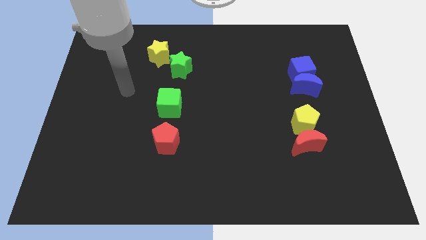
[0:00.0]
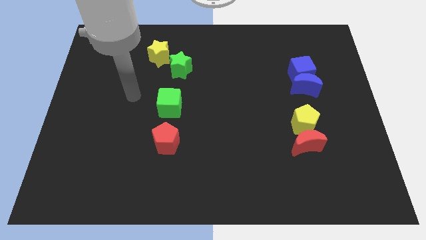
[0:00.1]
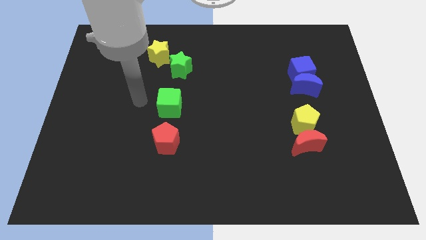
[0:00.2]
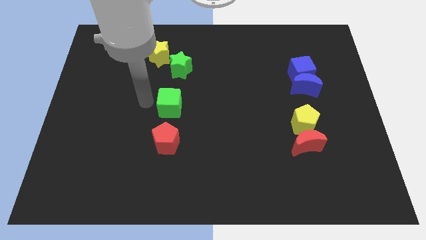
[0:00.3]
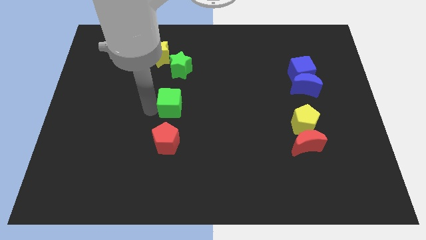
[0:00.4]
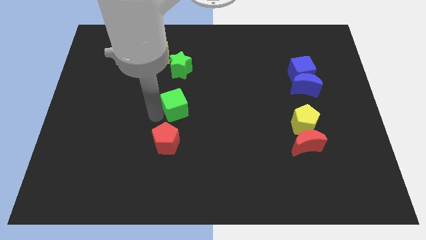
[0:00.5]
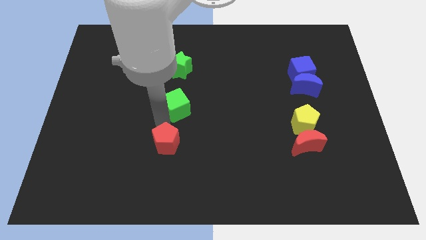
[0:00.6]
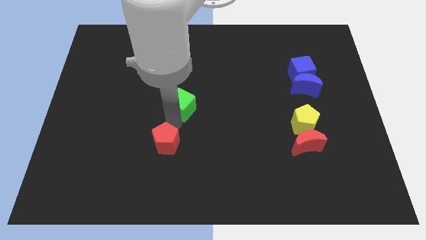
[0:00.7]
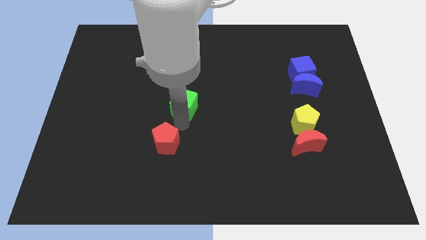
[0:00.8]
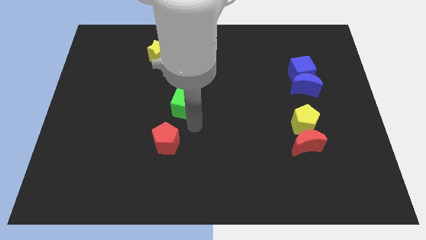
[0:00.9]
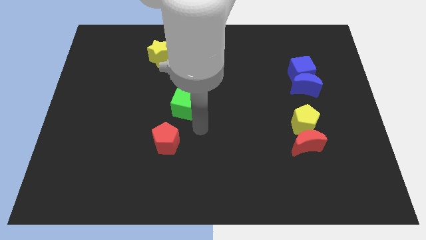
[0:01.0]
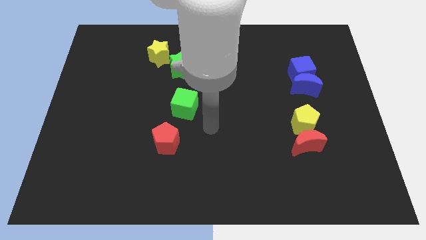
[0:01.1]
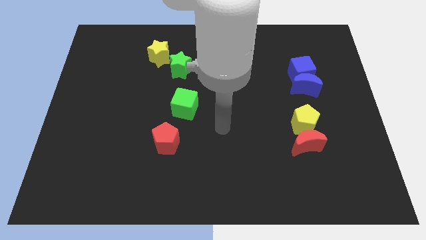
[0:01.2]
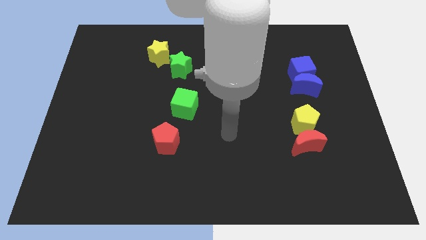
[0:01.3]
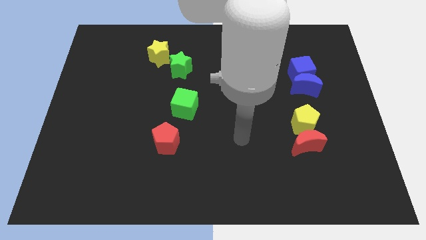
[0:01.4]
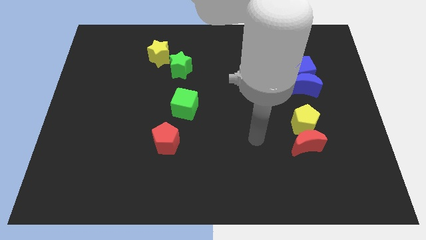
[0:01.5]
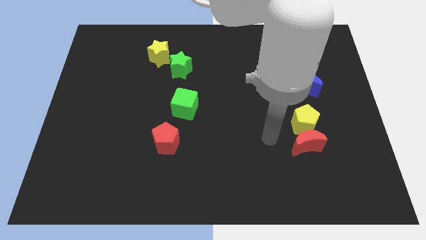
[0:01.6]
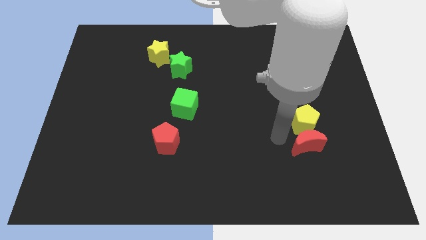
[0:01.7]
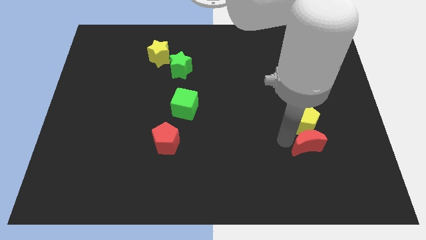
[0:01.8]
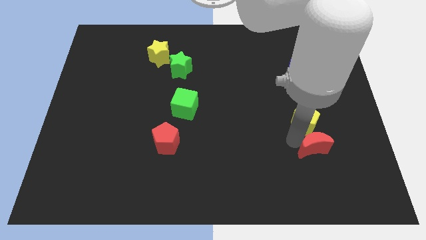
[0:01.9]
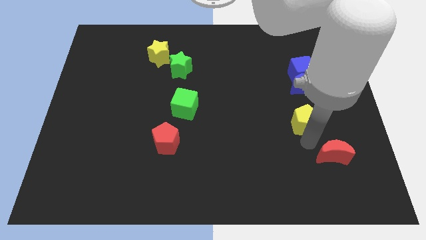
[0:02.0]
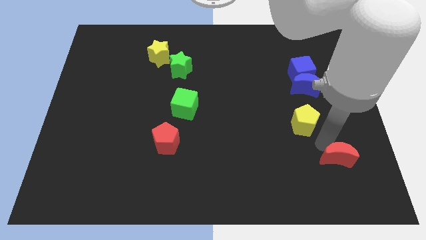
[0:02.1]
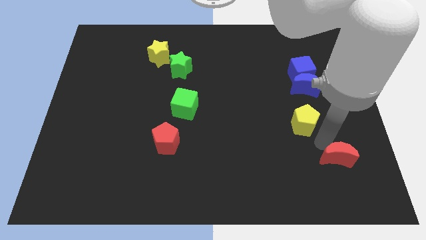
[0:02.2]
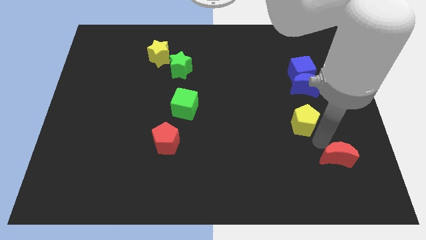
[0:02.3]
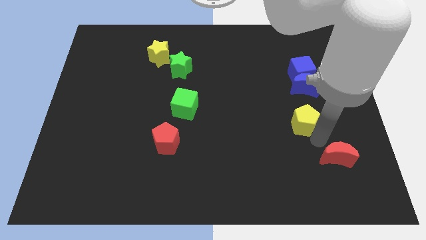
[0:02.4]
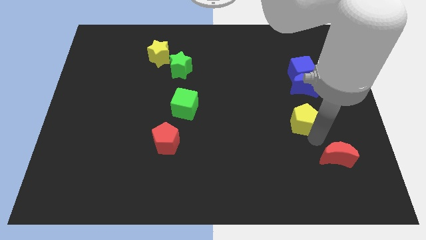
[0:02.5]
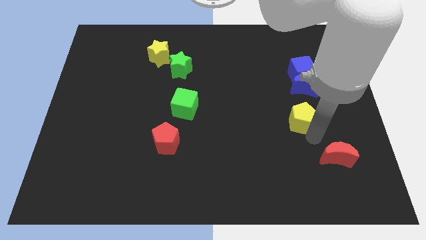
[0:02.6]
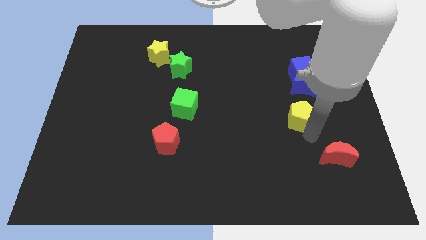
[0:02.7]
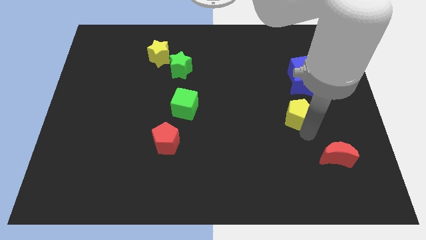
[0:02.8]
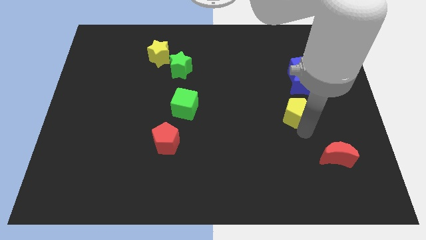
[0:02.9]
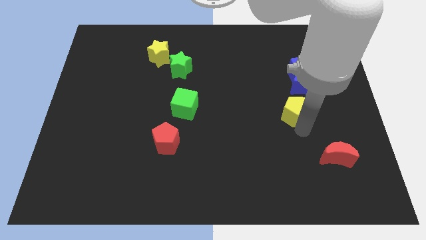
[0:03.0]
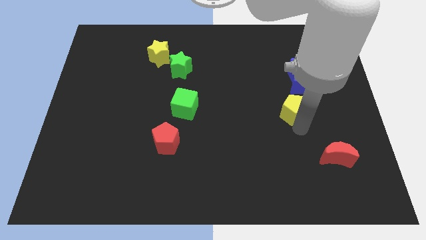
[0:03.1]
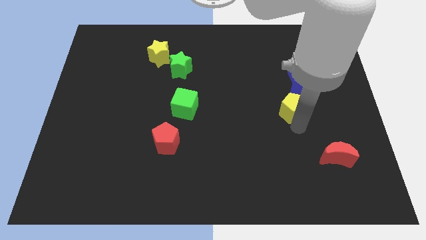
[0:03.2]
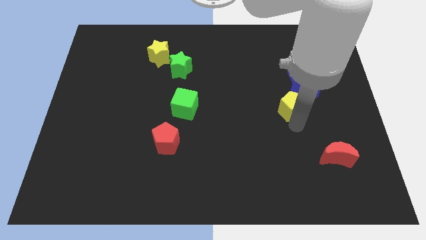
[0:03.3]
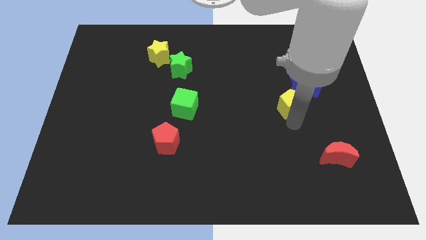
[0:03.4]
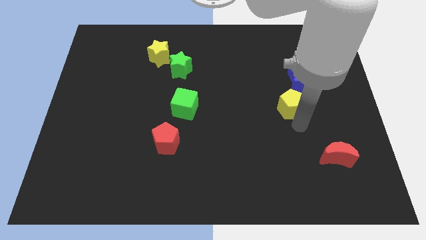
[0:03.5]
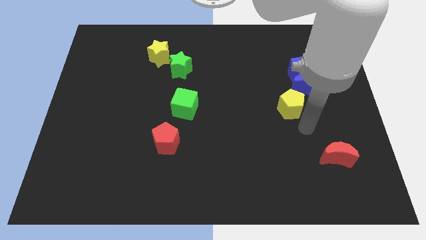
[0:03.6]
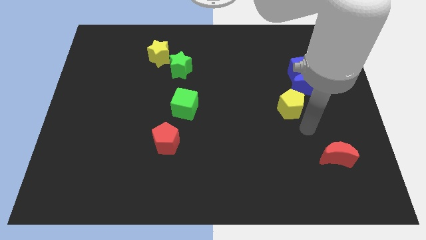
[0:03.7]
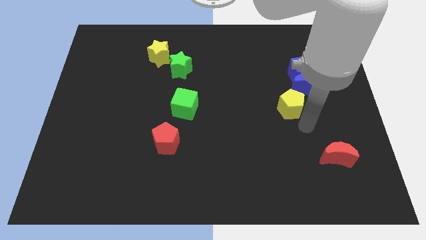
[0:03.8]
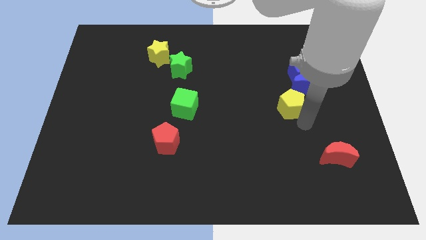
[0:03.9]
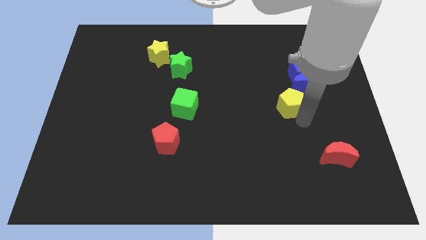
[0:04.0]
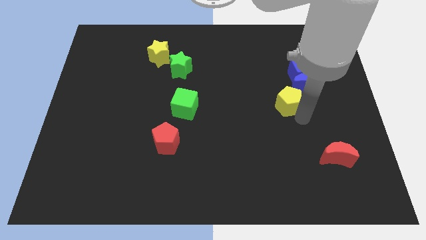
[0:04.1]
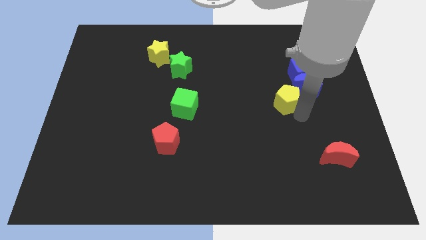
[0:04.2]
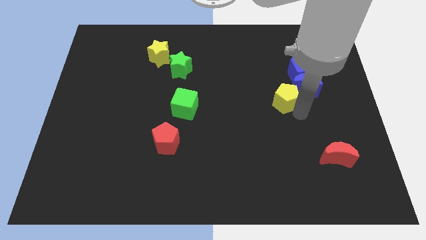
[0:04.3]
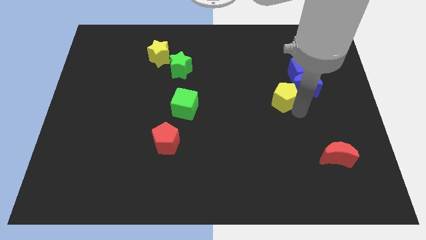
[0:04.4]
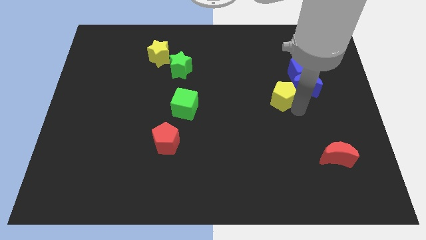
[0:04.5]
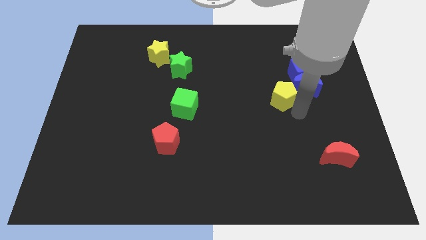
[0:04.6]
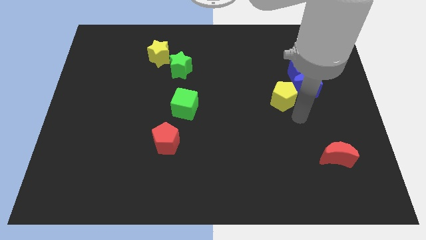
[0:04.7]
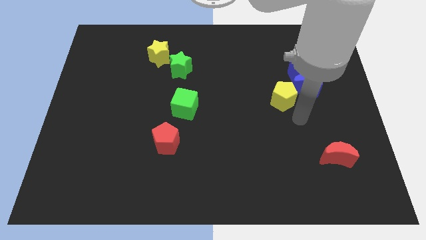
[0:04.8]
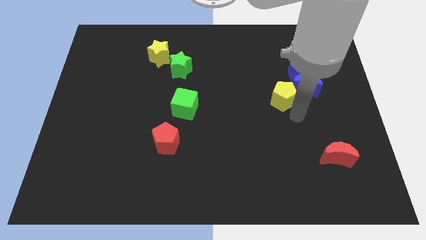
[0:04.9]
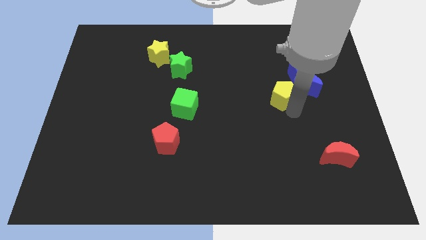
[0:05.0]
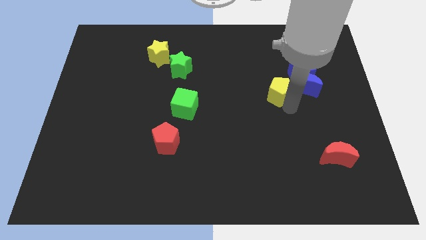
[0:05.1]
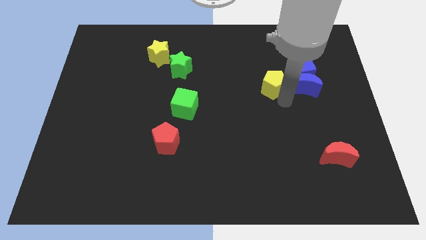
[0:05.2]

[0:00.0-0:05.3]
push the yellow pentagon left of the blue cube

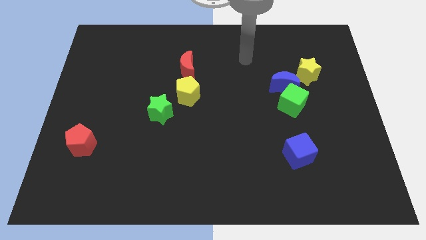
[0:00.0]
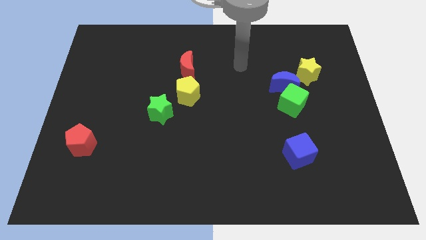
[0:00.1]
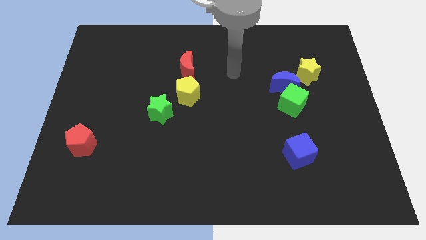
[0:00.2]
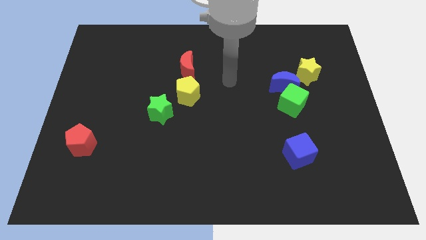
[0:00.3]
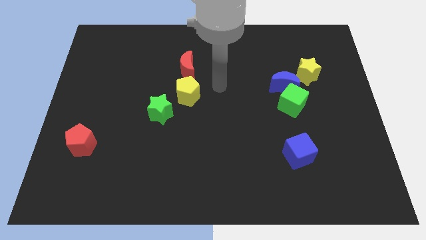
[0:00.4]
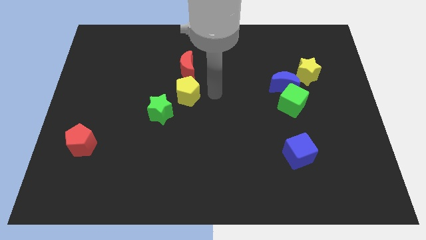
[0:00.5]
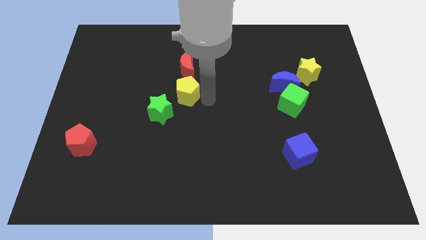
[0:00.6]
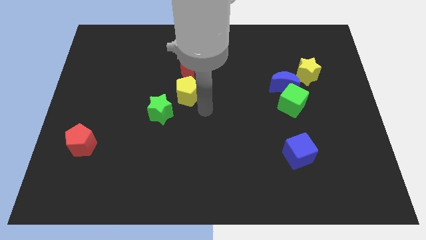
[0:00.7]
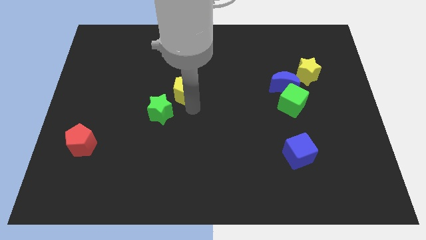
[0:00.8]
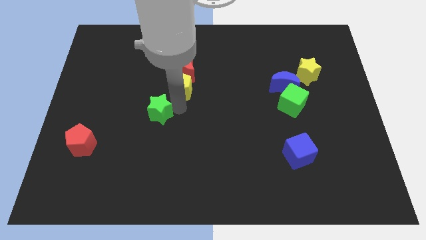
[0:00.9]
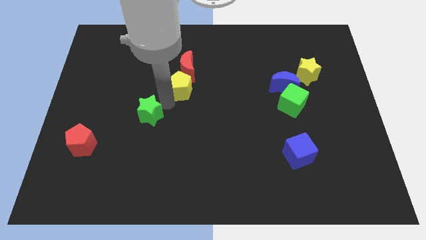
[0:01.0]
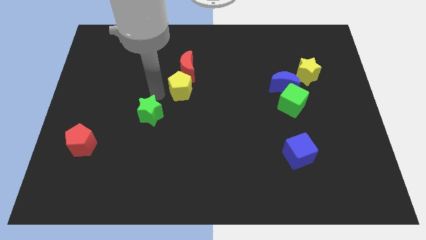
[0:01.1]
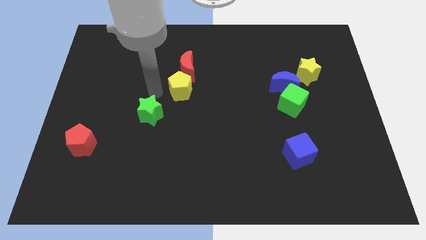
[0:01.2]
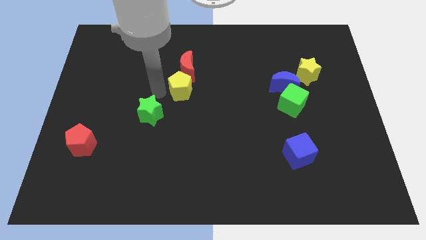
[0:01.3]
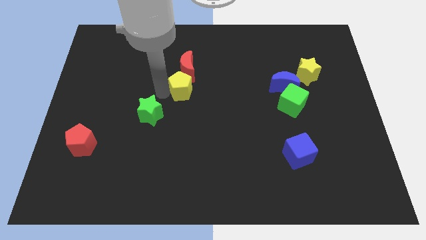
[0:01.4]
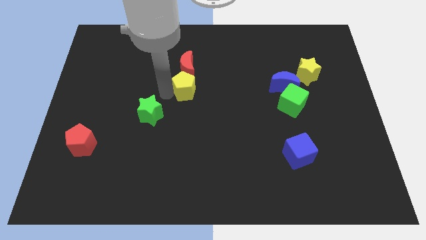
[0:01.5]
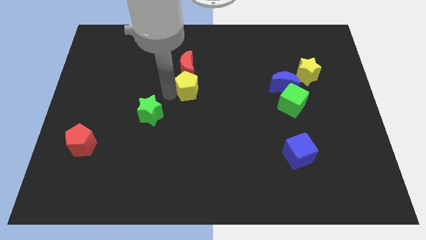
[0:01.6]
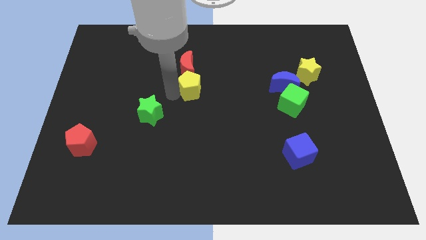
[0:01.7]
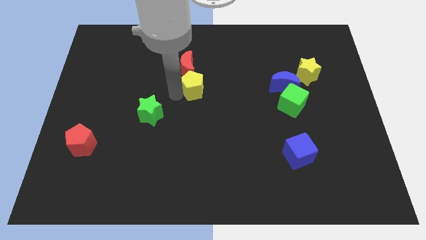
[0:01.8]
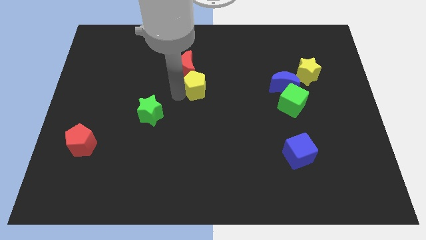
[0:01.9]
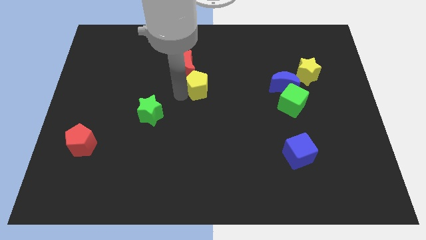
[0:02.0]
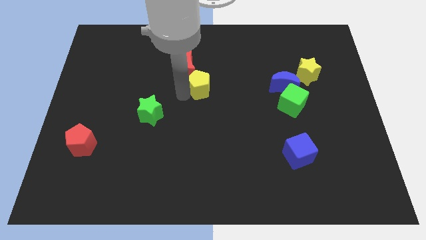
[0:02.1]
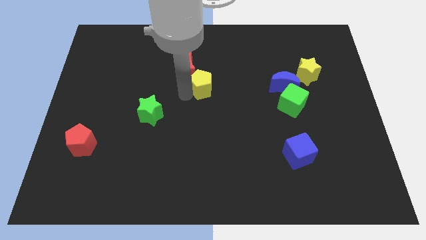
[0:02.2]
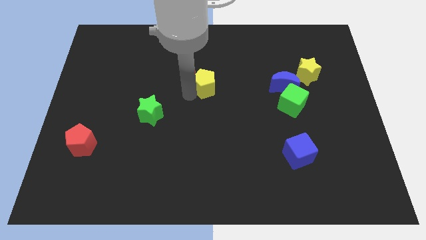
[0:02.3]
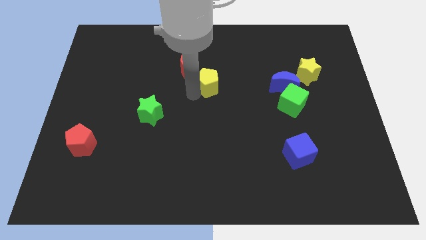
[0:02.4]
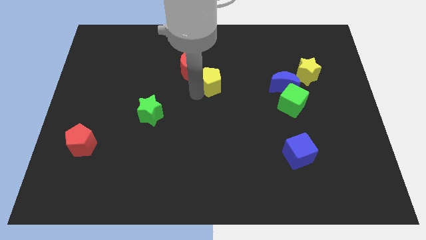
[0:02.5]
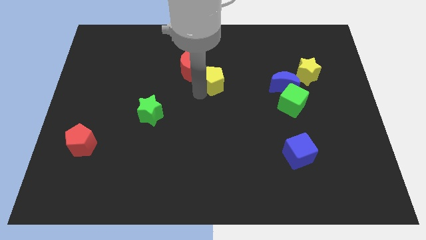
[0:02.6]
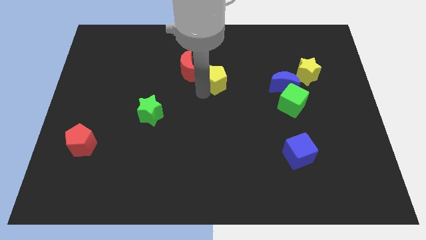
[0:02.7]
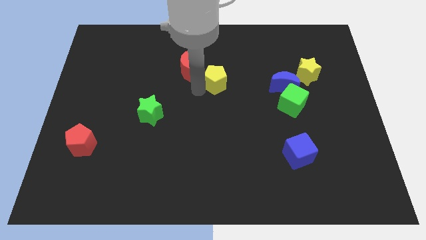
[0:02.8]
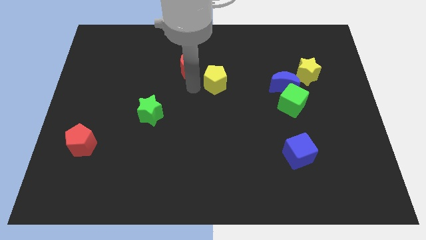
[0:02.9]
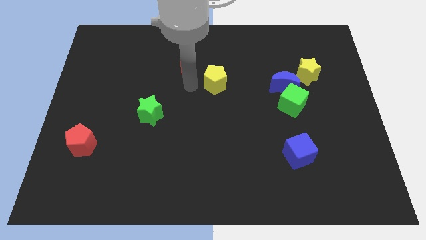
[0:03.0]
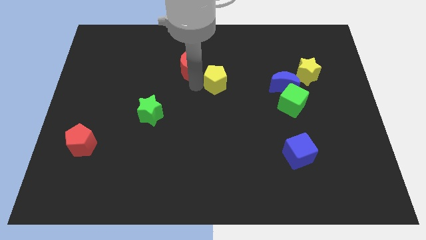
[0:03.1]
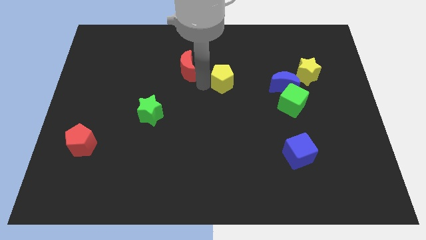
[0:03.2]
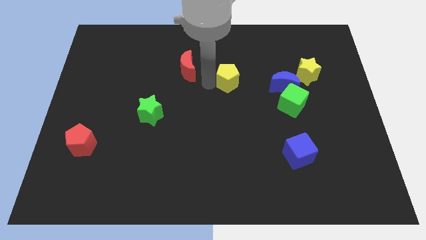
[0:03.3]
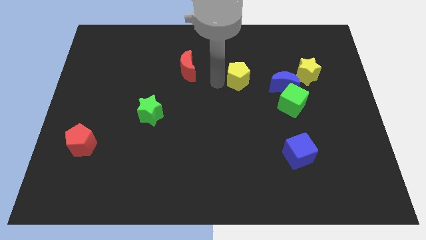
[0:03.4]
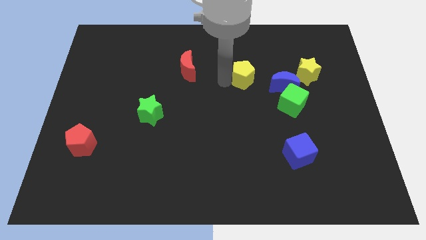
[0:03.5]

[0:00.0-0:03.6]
move the yellow pentagon left of the yellow star
